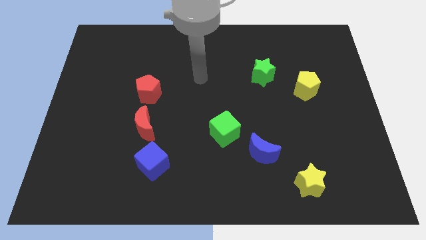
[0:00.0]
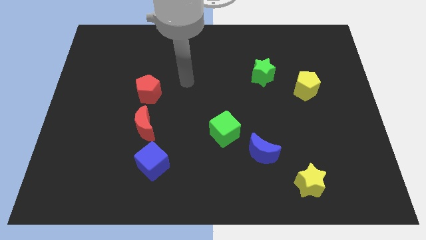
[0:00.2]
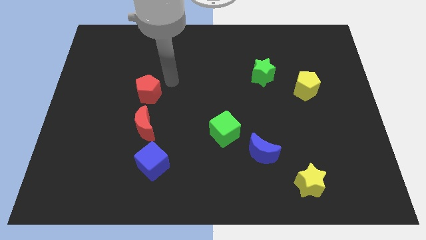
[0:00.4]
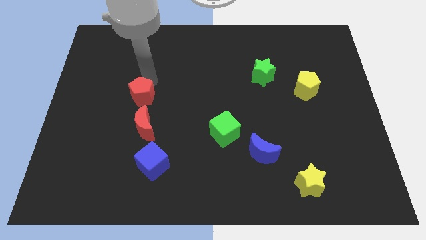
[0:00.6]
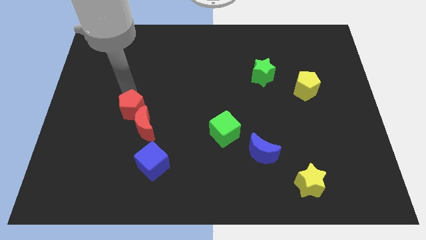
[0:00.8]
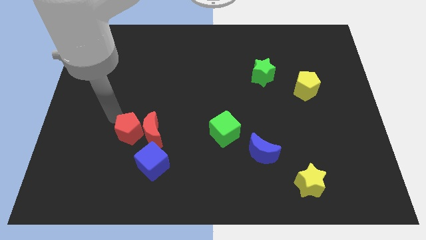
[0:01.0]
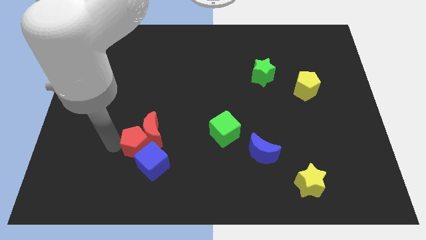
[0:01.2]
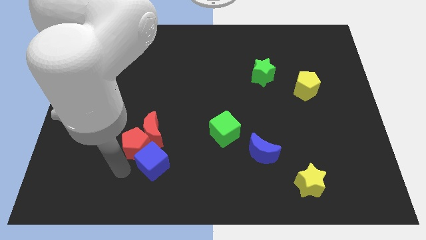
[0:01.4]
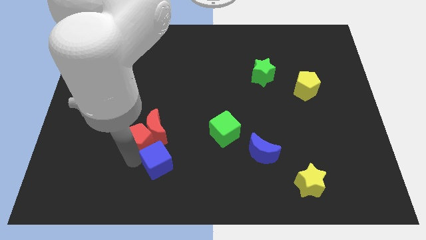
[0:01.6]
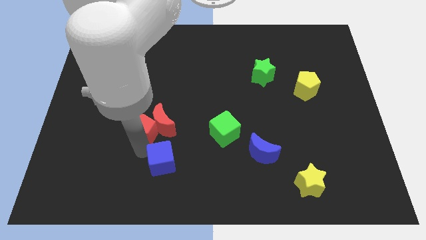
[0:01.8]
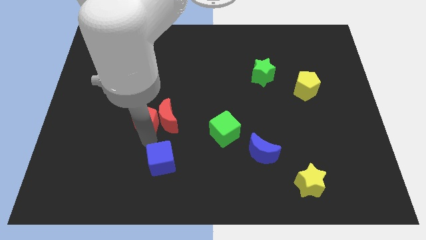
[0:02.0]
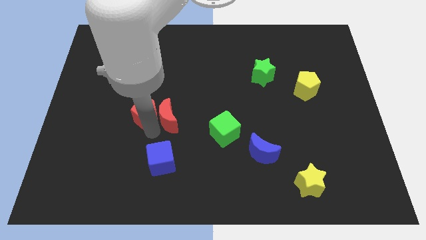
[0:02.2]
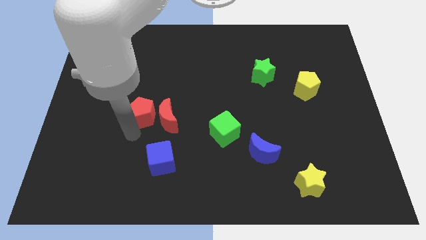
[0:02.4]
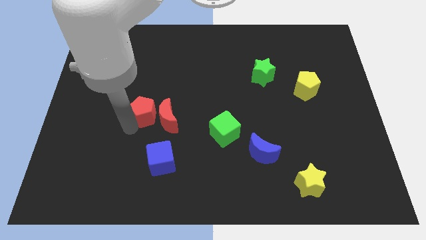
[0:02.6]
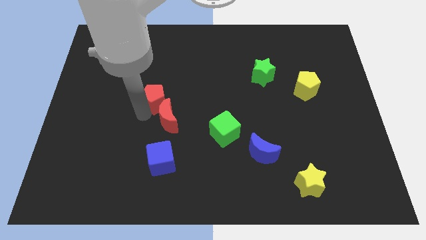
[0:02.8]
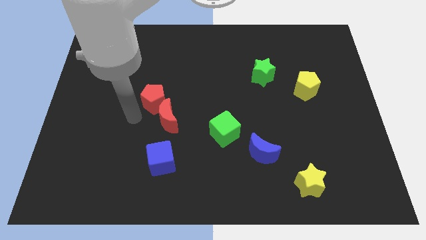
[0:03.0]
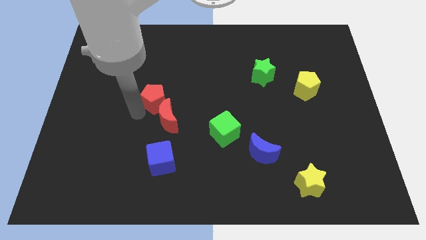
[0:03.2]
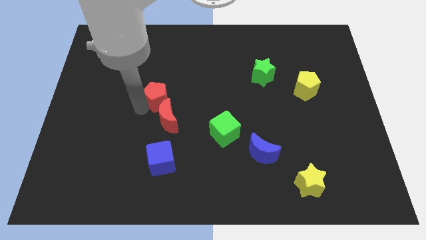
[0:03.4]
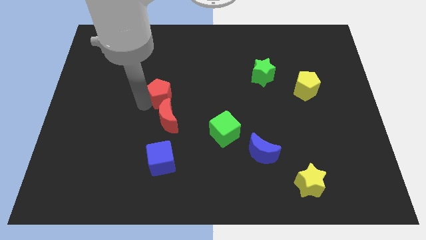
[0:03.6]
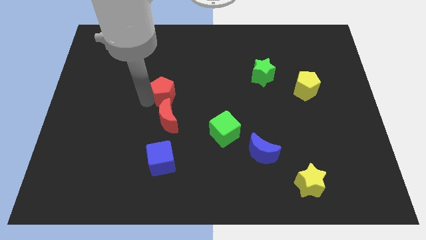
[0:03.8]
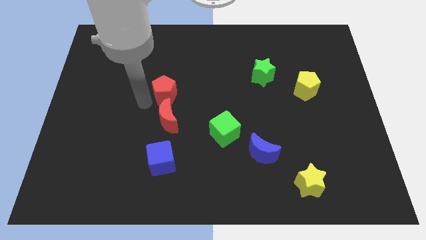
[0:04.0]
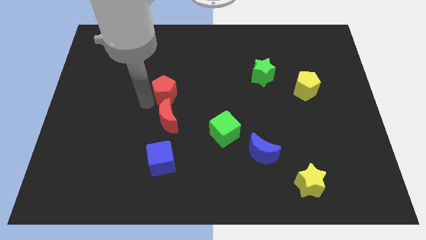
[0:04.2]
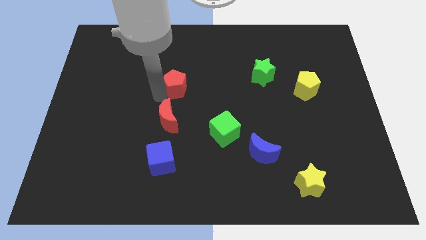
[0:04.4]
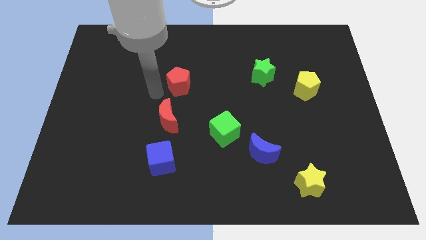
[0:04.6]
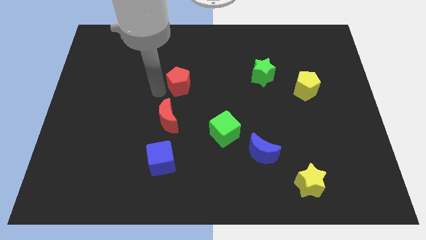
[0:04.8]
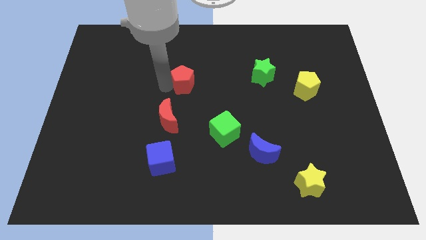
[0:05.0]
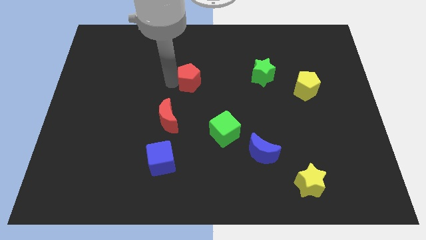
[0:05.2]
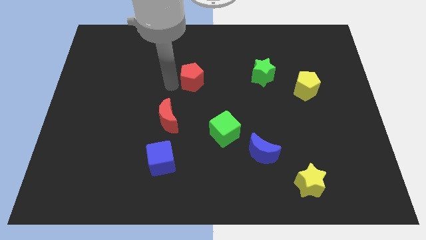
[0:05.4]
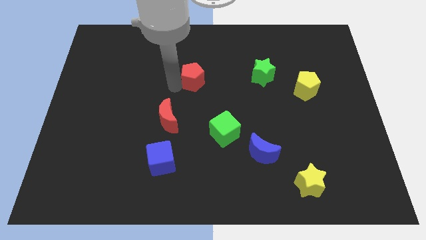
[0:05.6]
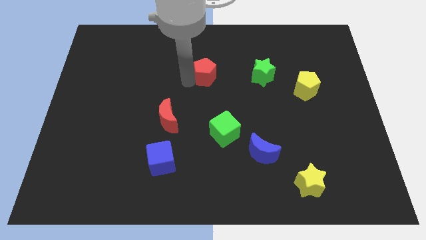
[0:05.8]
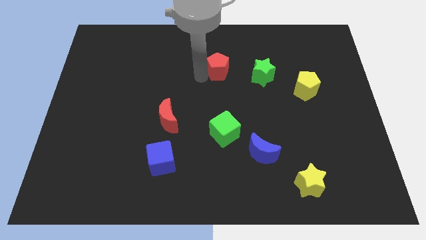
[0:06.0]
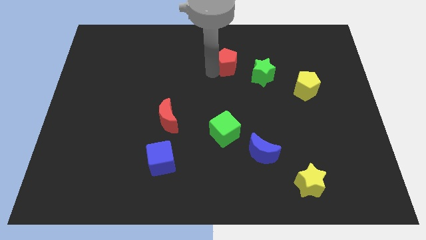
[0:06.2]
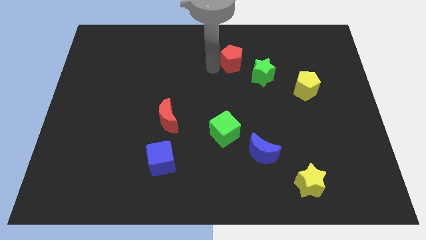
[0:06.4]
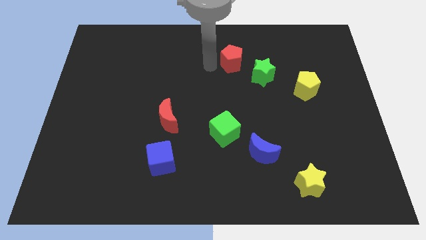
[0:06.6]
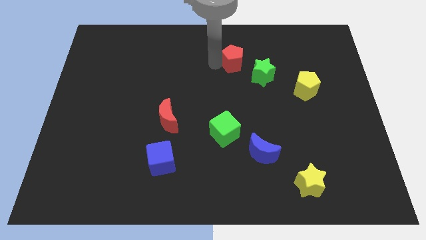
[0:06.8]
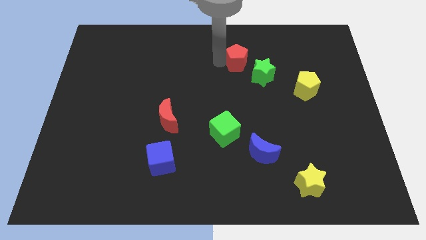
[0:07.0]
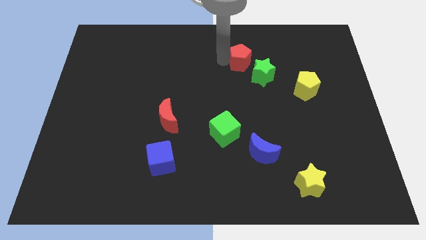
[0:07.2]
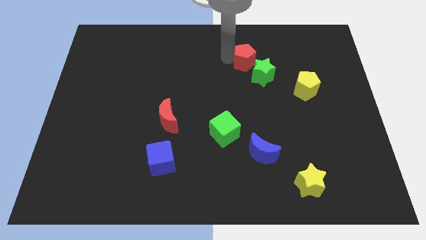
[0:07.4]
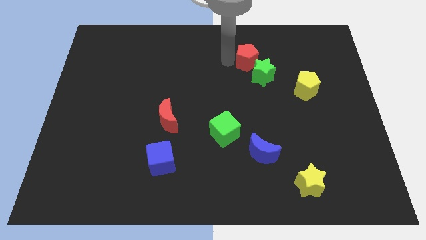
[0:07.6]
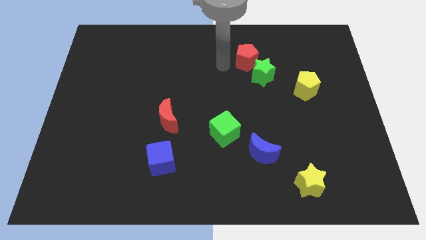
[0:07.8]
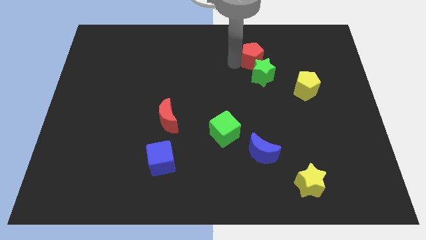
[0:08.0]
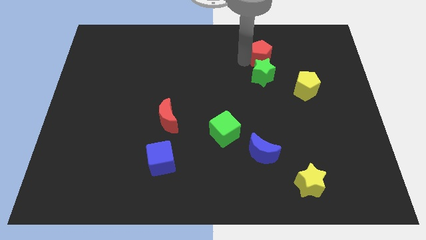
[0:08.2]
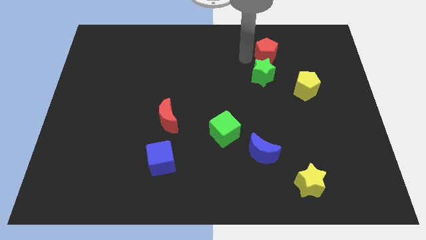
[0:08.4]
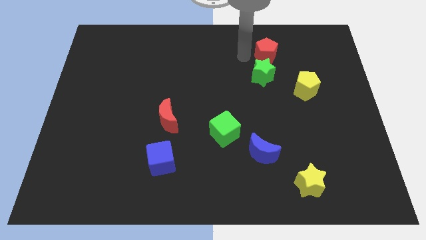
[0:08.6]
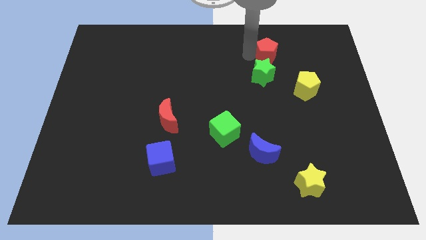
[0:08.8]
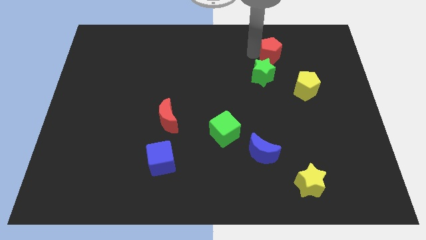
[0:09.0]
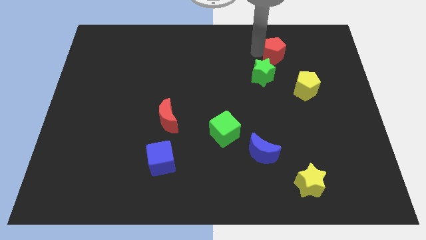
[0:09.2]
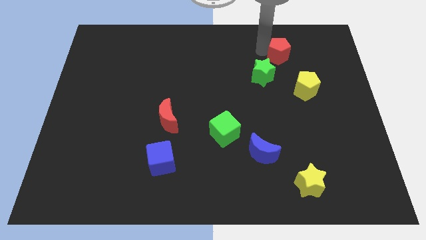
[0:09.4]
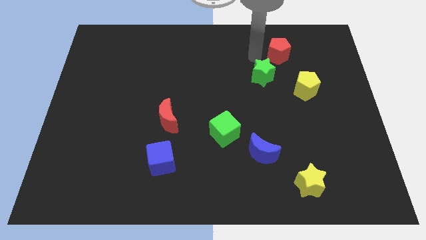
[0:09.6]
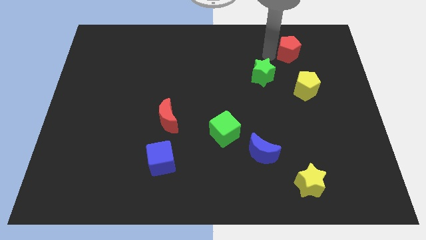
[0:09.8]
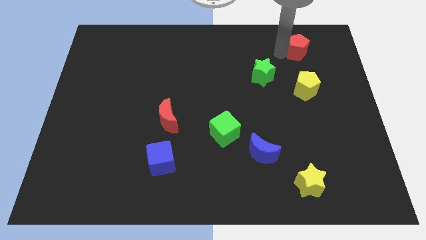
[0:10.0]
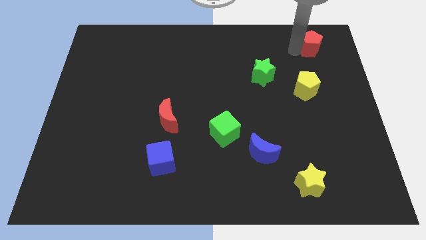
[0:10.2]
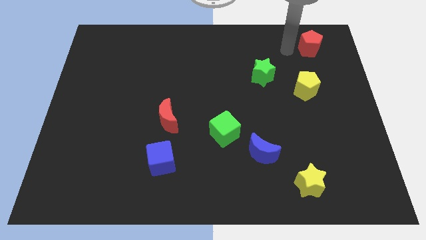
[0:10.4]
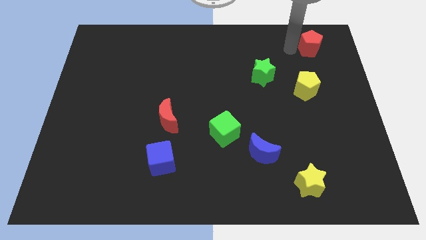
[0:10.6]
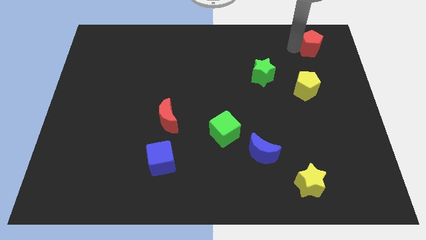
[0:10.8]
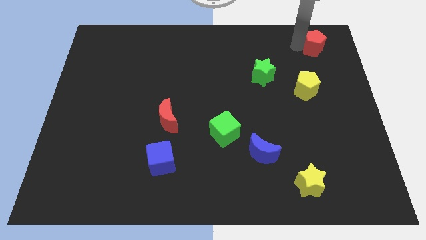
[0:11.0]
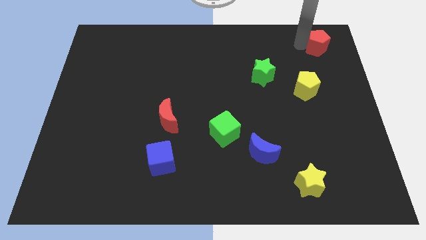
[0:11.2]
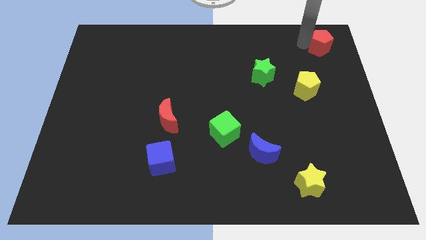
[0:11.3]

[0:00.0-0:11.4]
put the red pentagon to the top right of the board

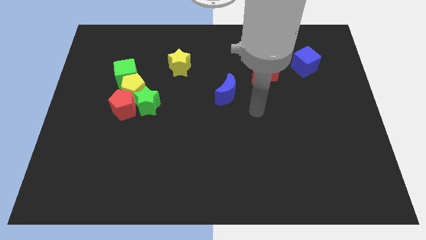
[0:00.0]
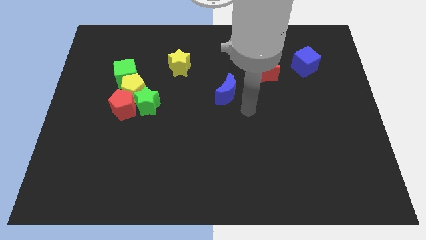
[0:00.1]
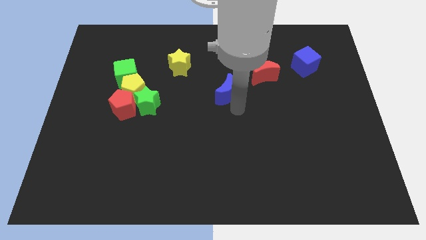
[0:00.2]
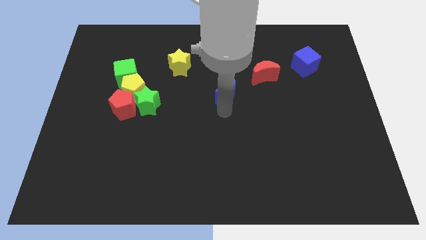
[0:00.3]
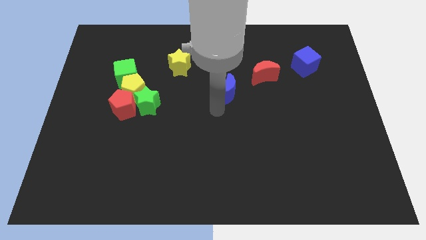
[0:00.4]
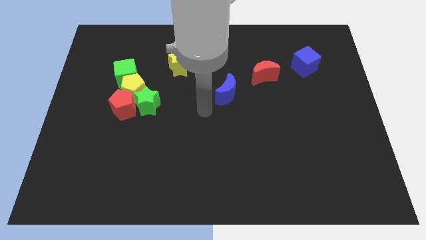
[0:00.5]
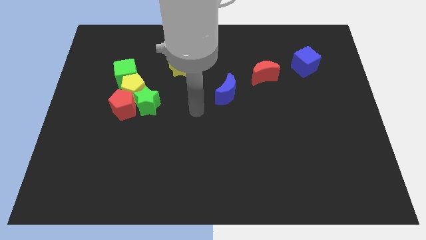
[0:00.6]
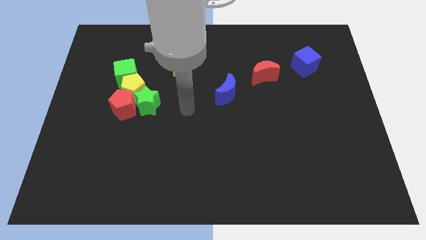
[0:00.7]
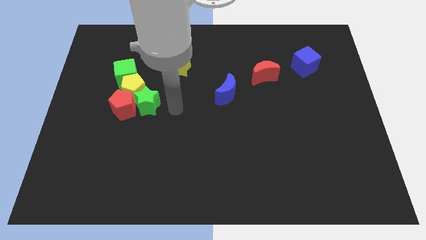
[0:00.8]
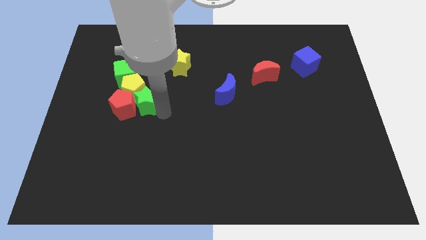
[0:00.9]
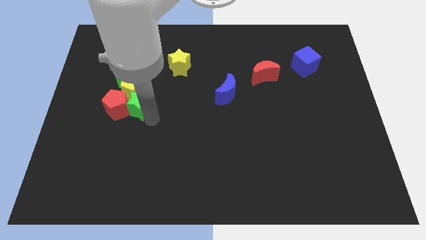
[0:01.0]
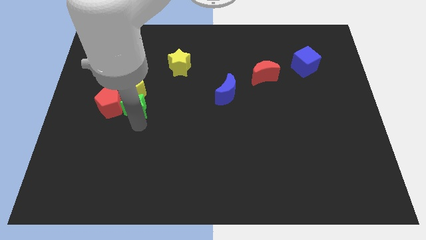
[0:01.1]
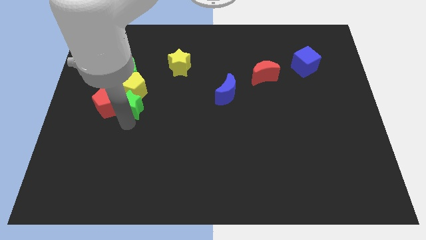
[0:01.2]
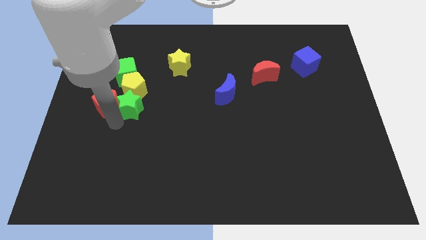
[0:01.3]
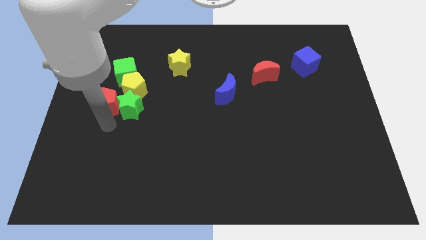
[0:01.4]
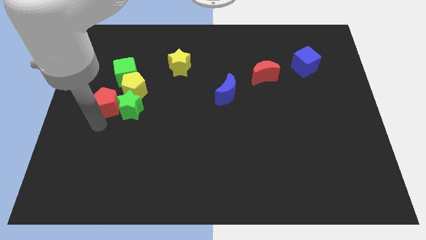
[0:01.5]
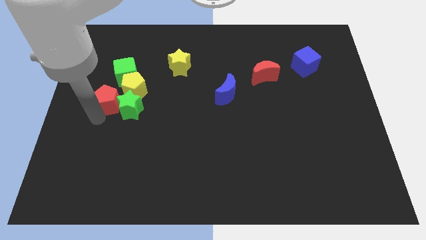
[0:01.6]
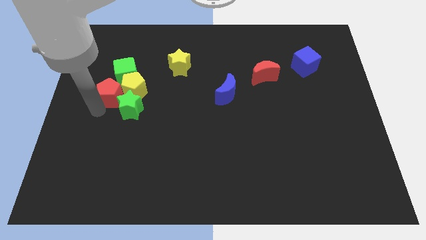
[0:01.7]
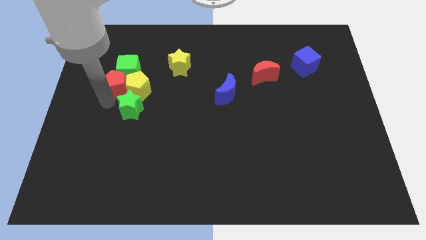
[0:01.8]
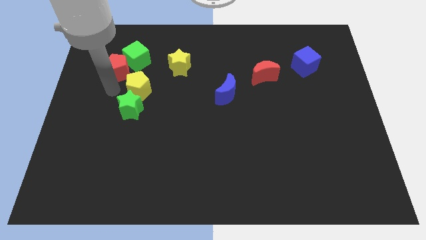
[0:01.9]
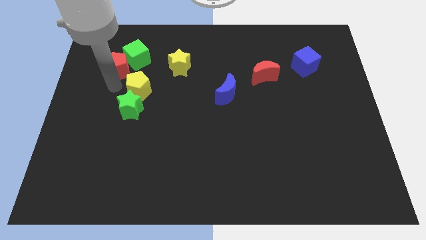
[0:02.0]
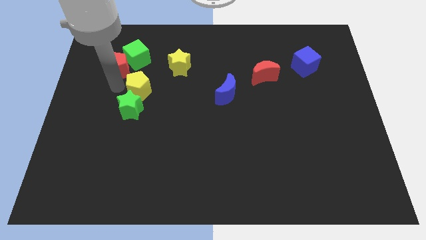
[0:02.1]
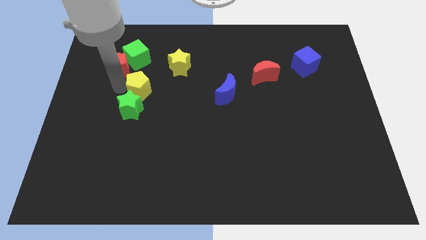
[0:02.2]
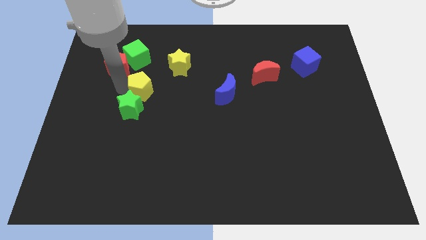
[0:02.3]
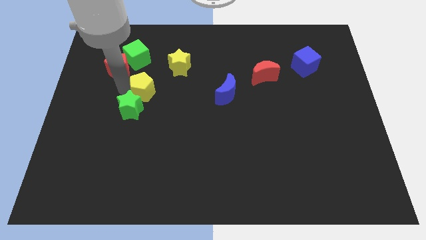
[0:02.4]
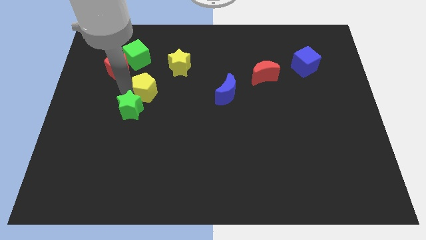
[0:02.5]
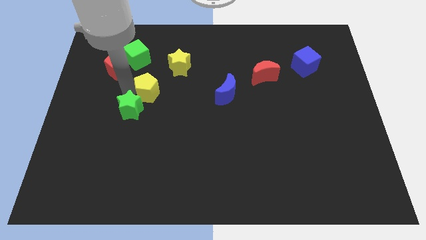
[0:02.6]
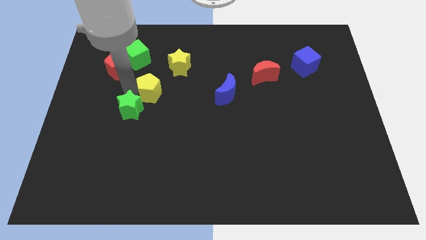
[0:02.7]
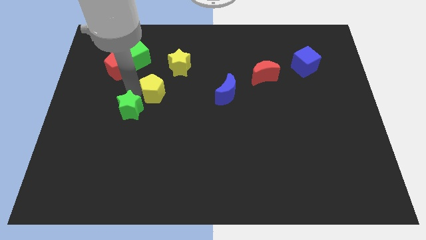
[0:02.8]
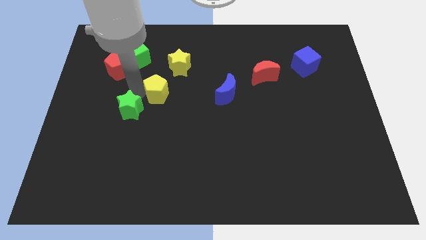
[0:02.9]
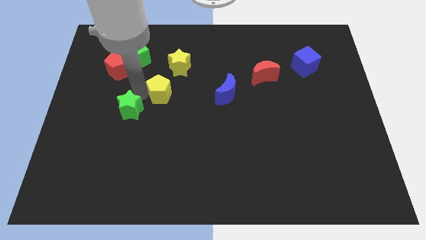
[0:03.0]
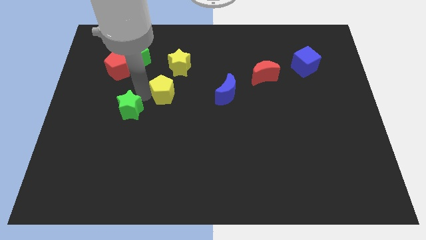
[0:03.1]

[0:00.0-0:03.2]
slide the yellow pentagon to the center of the board
